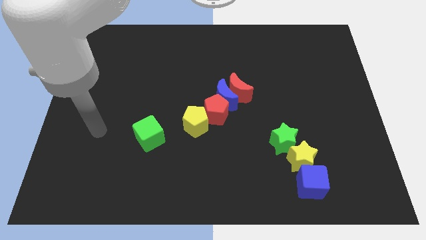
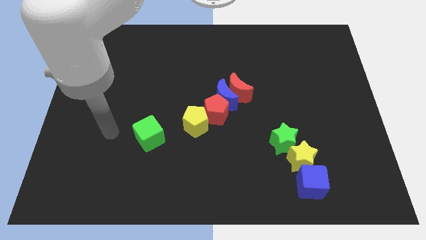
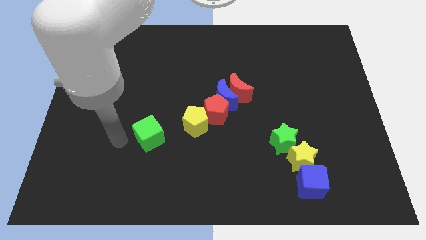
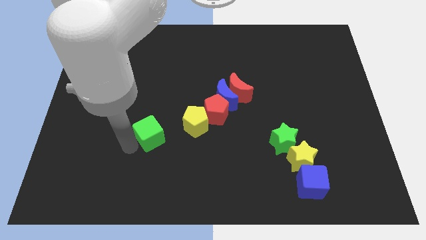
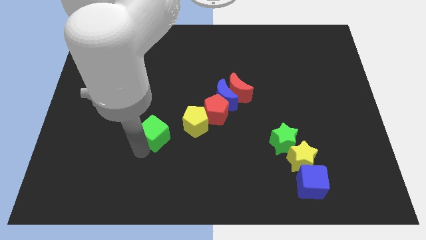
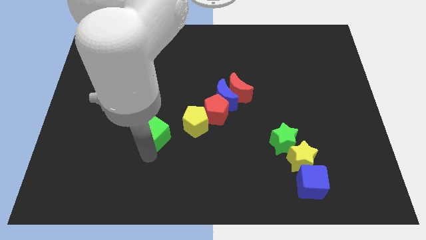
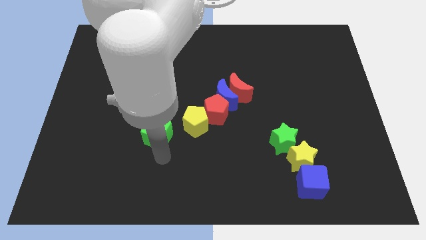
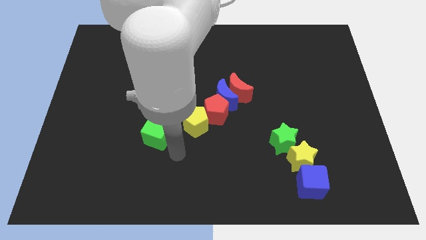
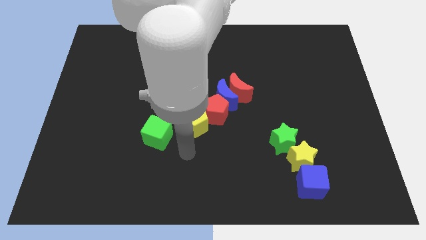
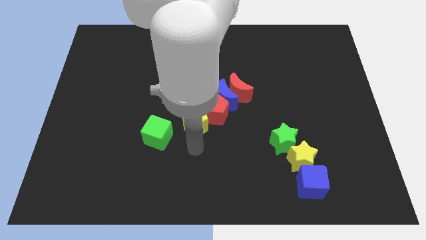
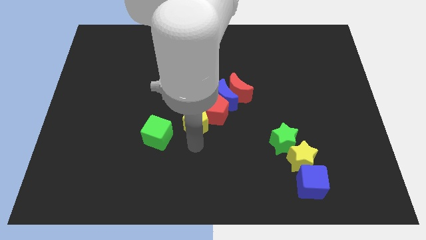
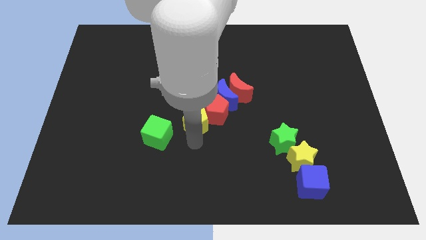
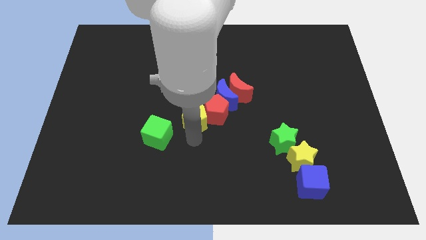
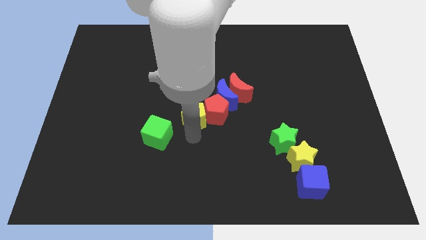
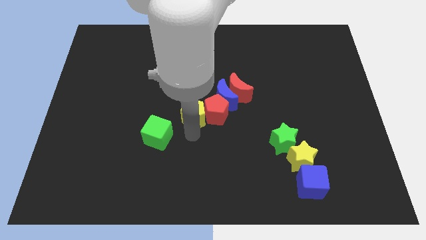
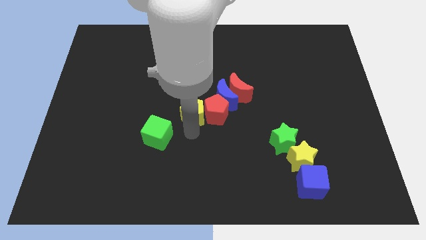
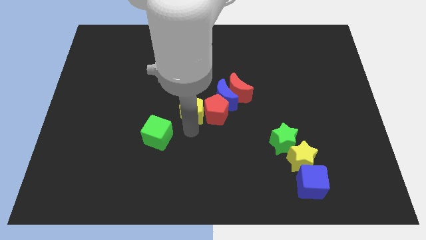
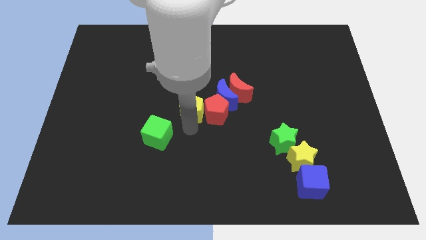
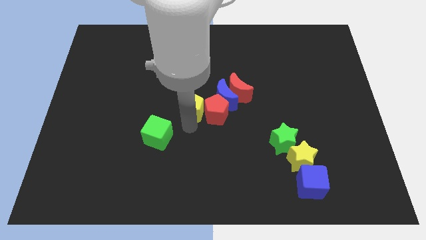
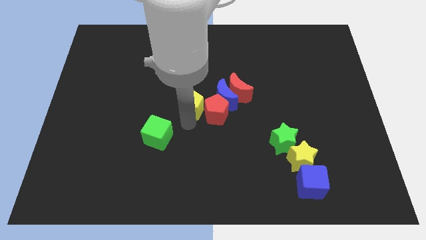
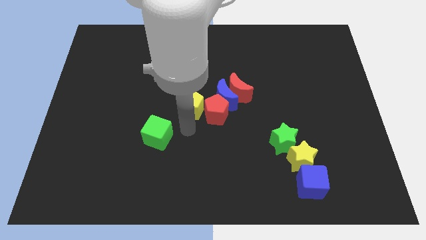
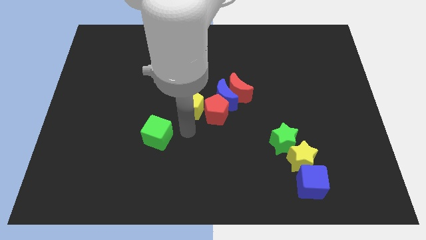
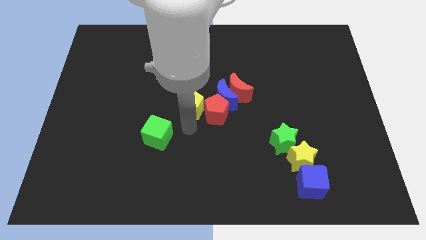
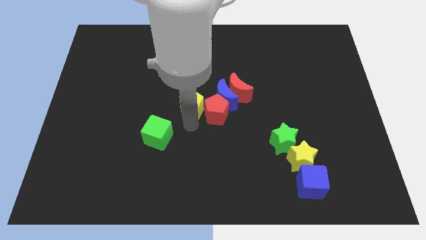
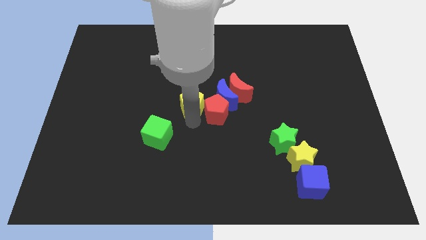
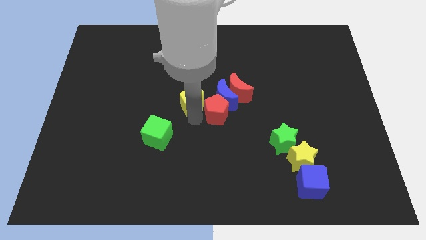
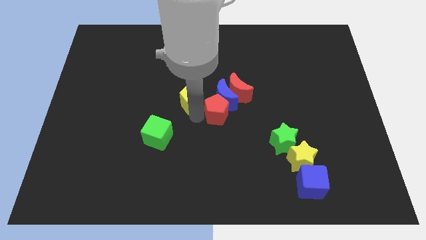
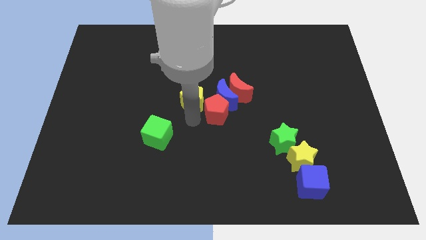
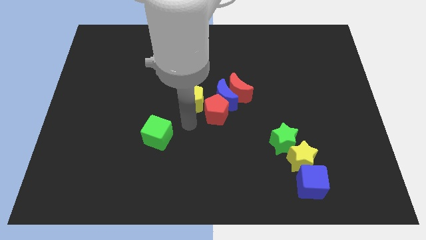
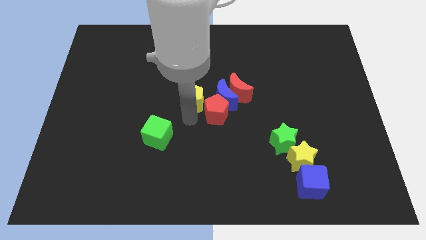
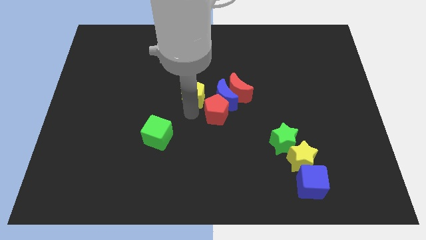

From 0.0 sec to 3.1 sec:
slightly slide the yellow pentagon up

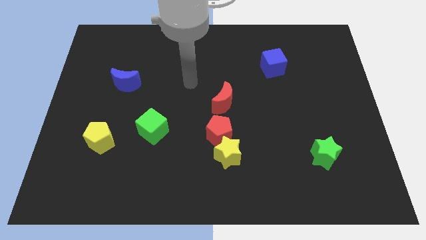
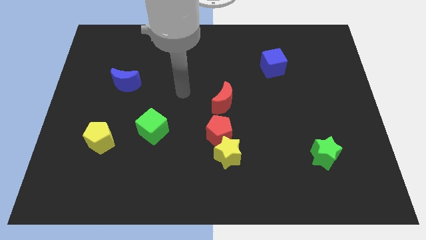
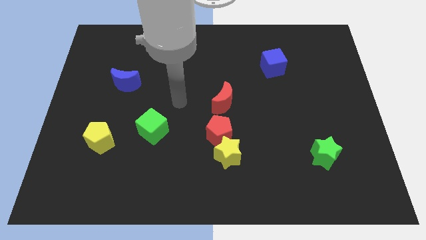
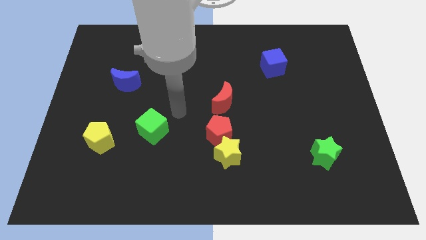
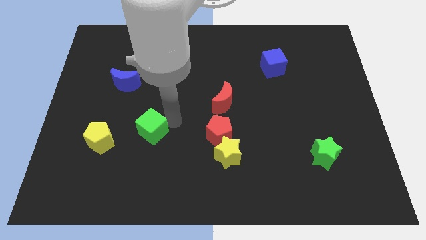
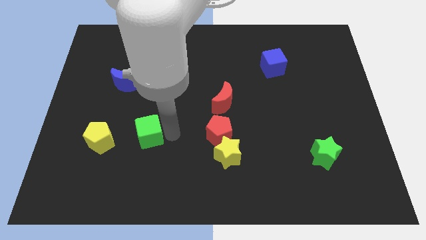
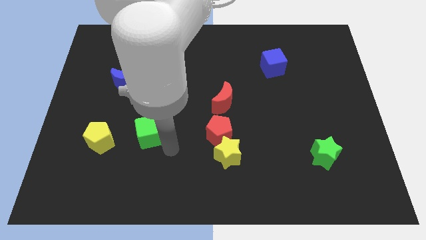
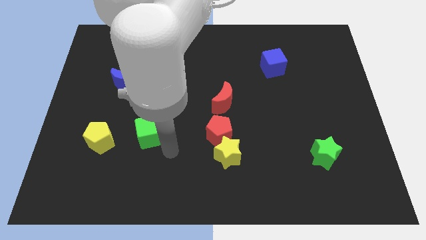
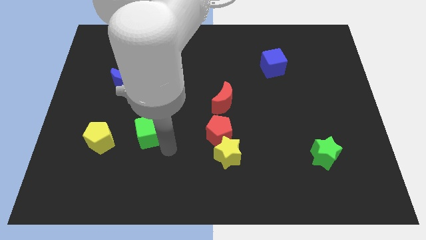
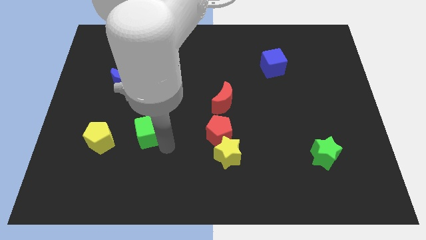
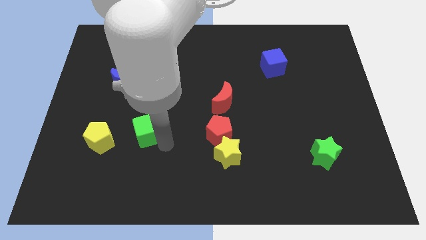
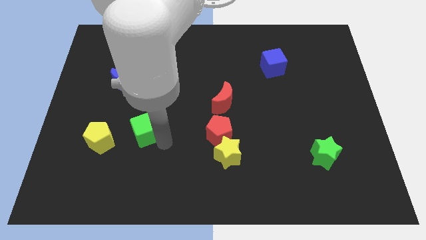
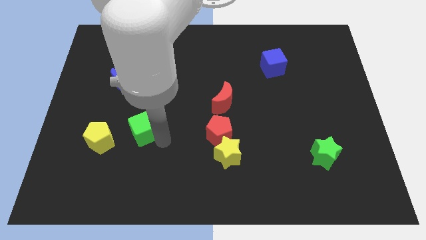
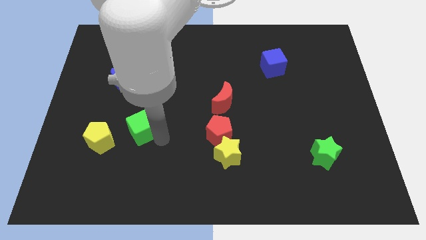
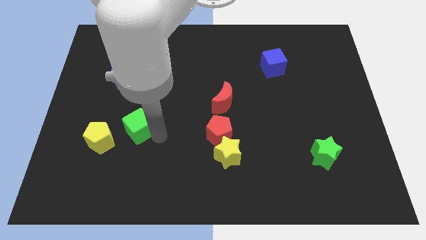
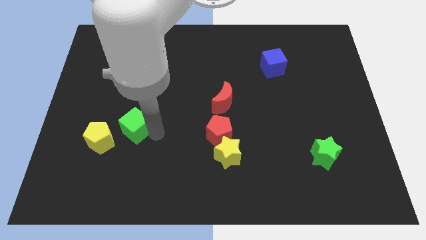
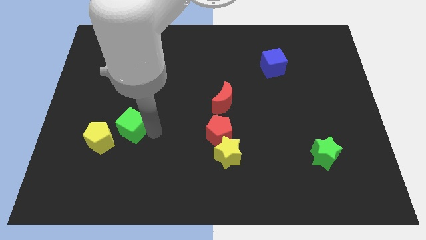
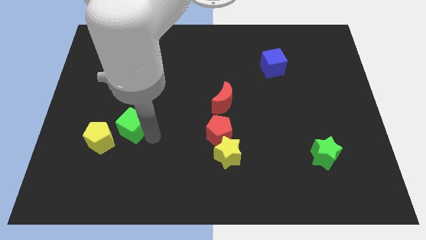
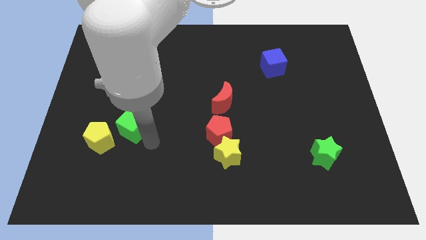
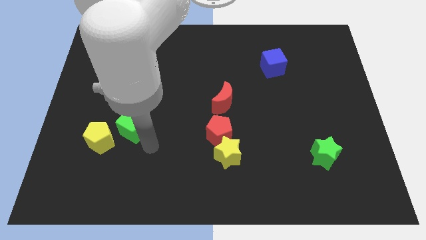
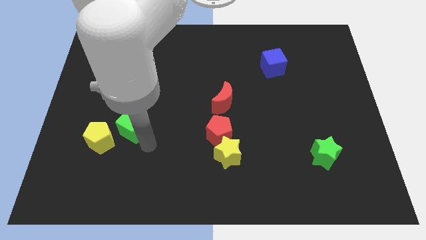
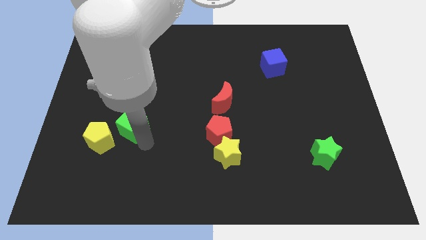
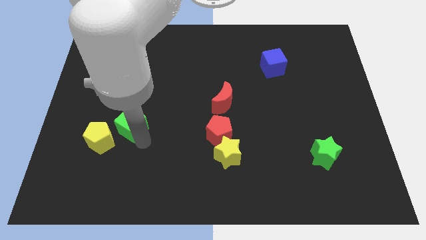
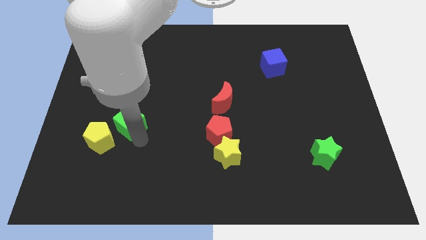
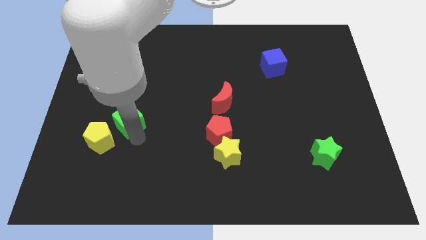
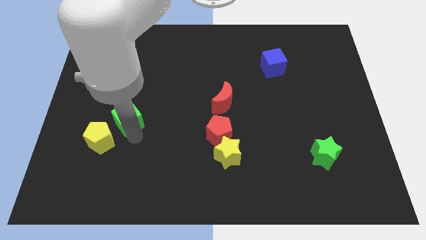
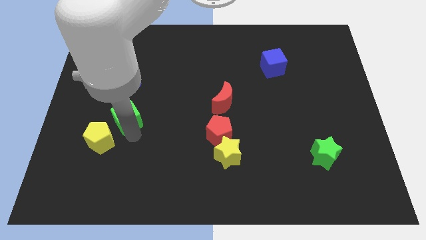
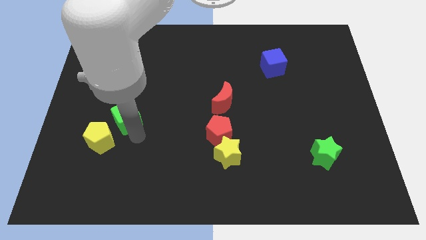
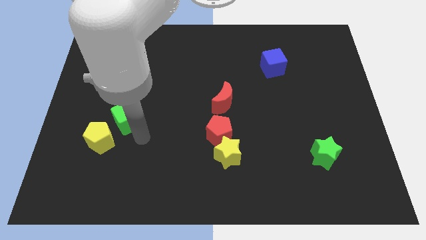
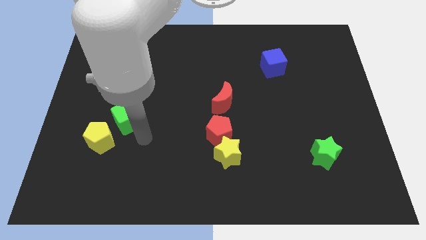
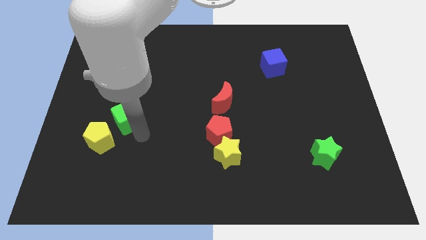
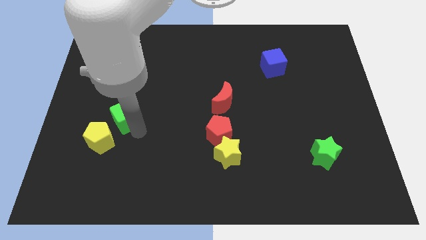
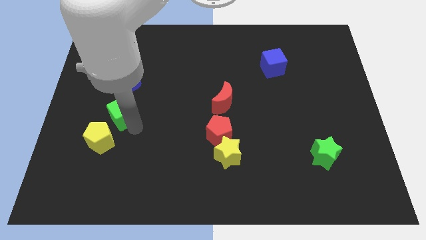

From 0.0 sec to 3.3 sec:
move the green cube a bit upwards and then left

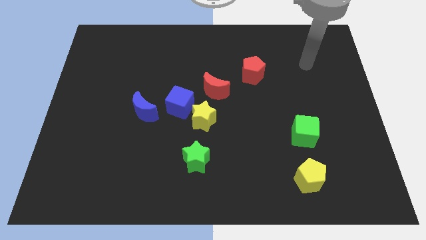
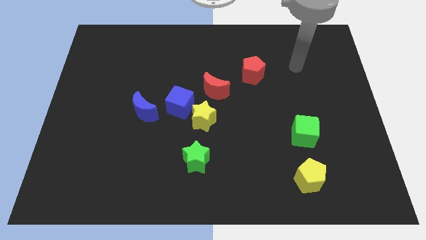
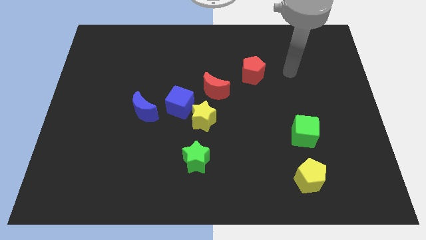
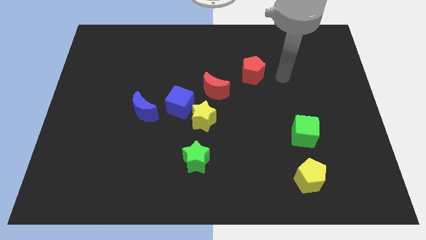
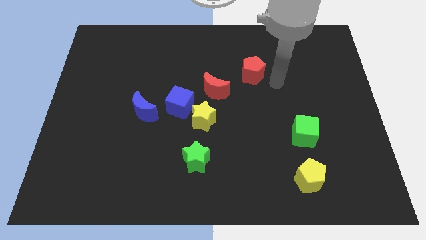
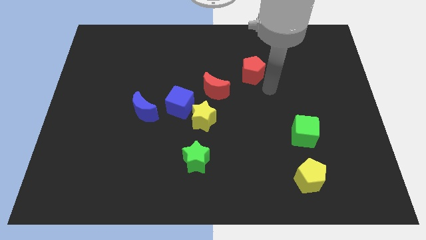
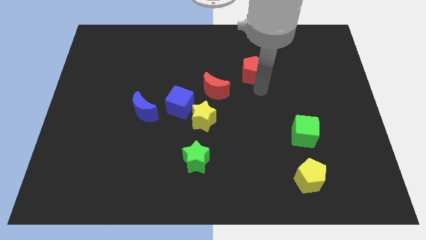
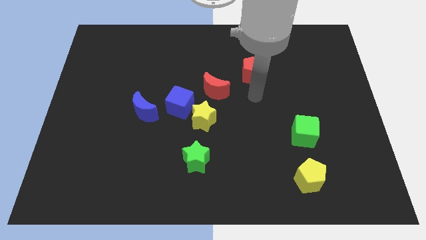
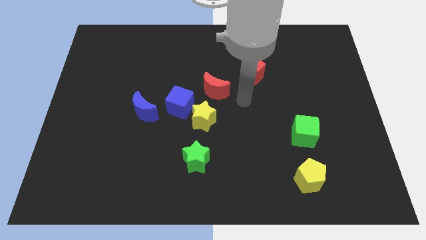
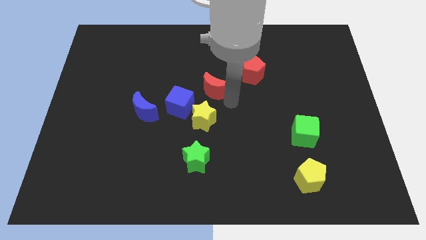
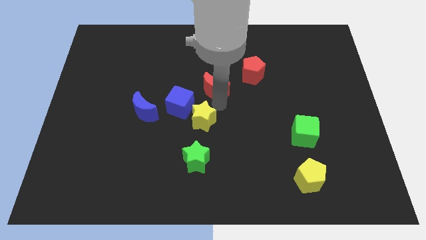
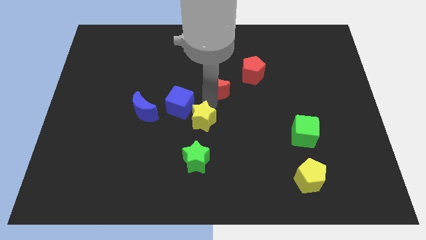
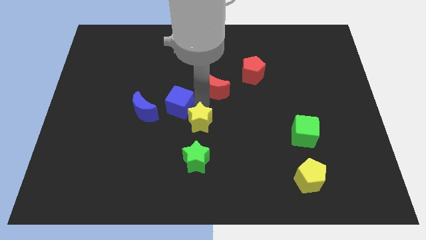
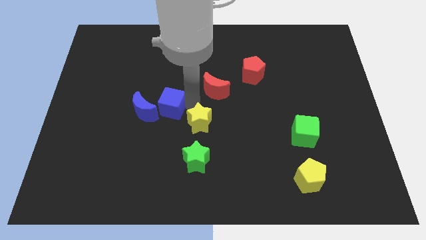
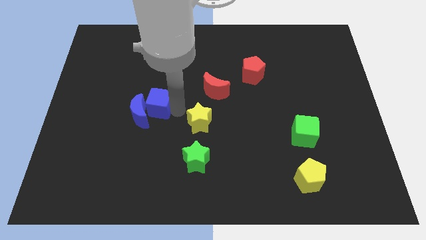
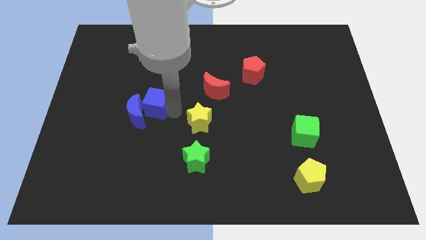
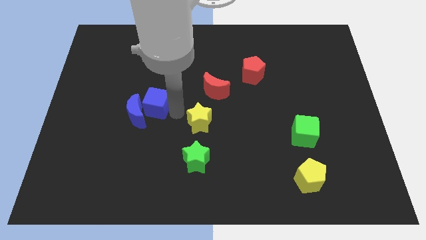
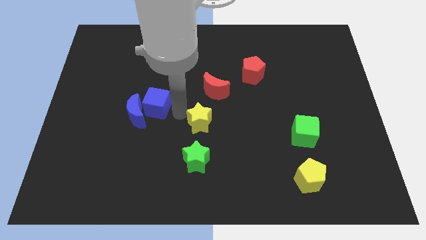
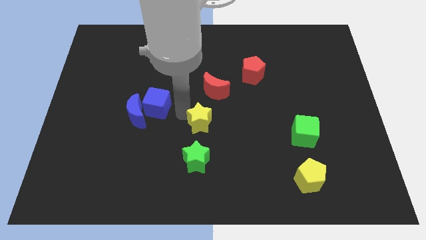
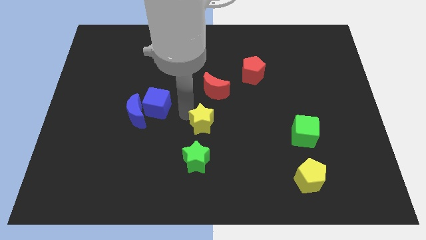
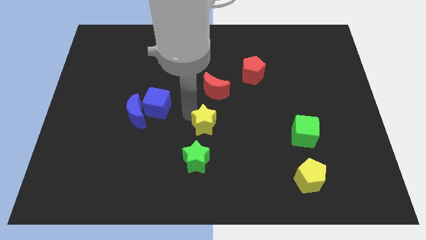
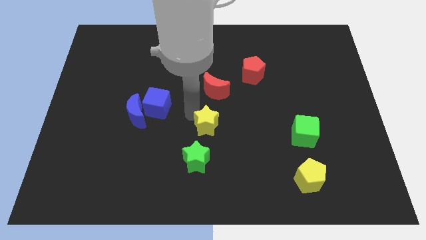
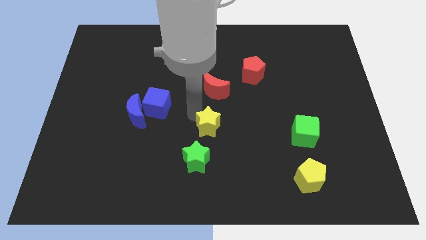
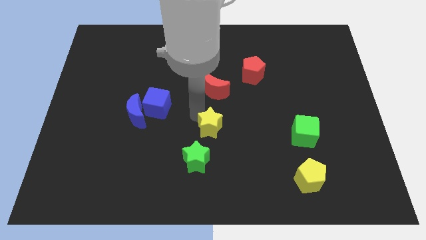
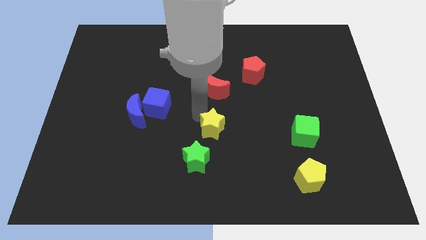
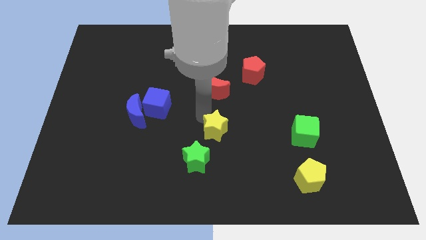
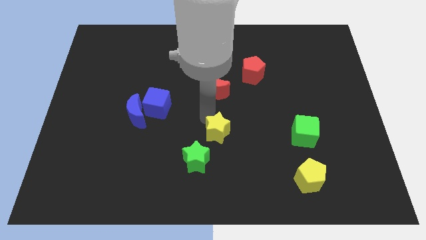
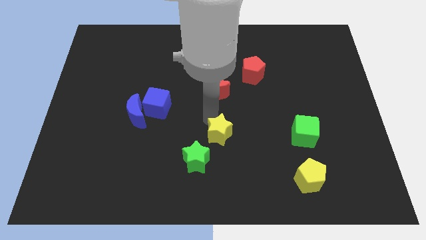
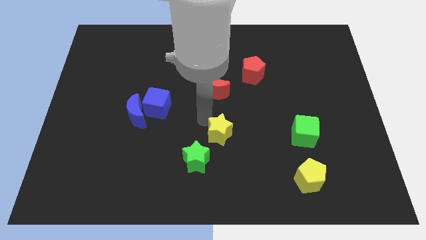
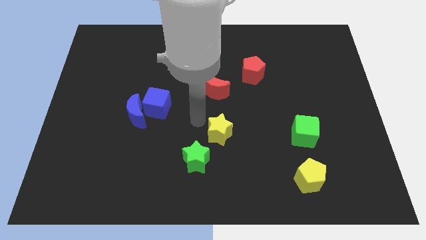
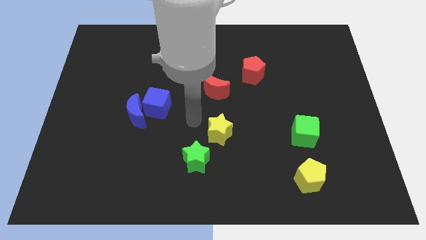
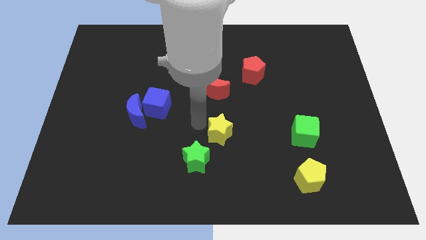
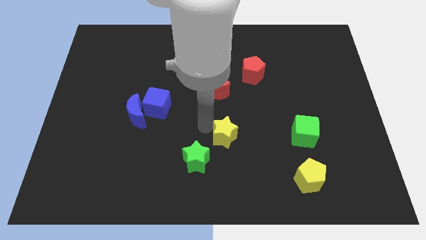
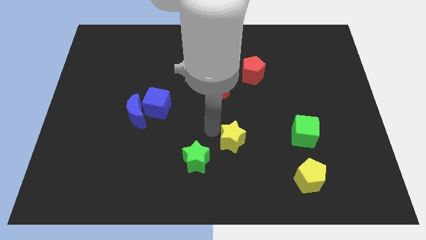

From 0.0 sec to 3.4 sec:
slightly slide the yellow star diagonally down and to the right
